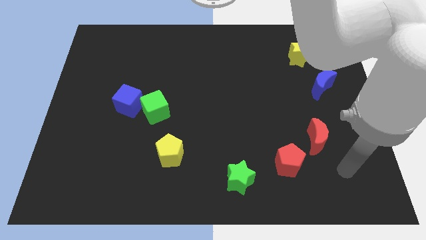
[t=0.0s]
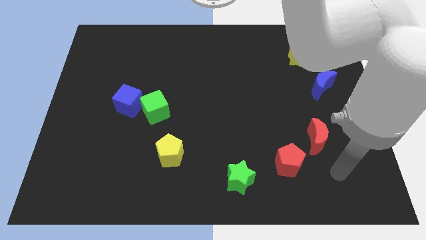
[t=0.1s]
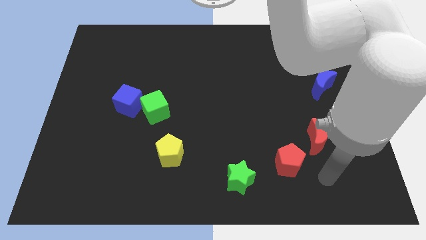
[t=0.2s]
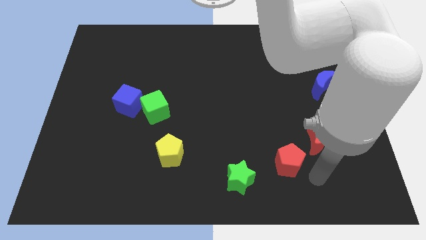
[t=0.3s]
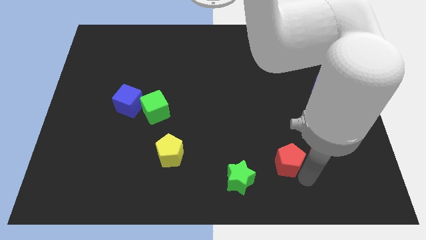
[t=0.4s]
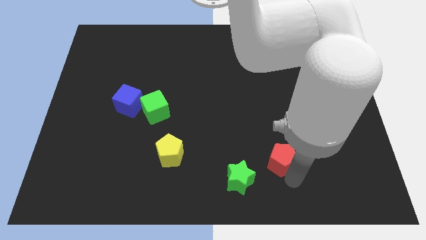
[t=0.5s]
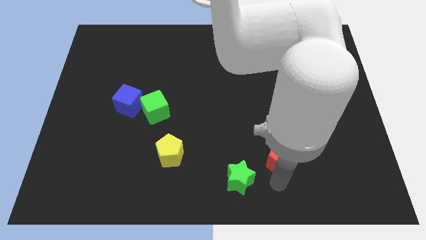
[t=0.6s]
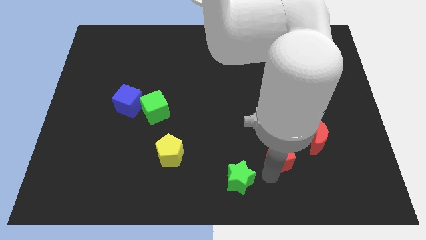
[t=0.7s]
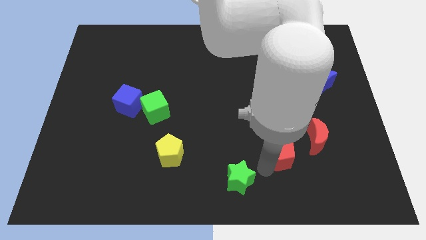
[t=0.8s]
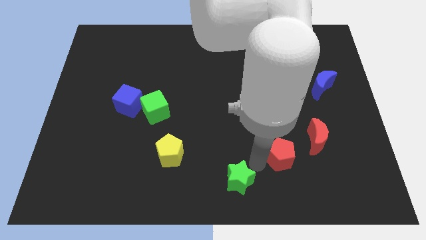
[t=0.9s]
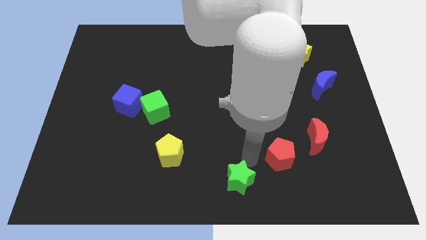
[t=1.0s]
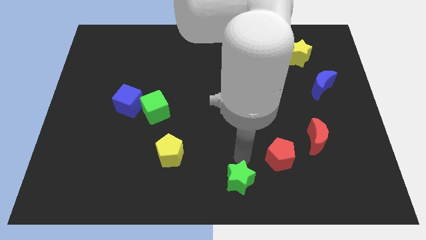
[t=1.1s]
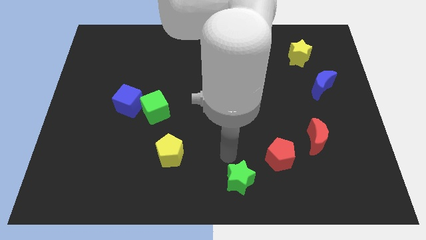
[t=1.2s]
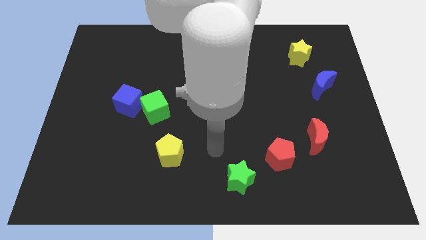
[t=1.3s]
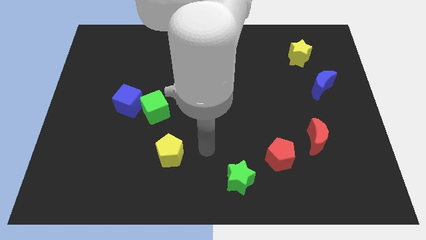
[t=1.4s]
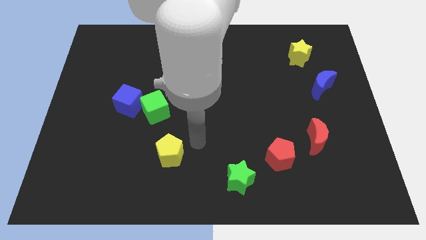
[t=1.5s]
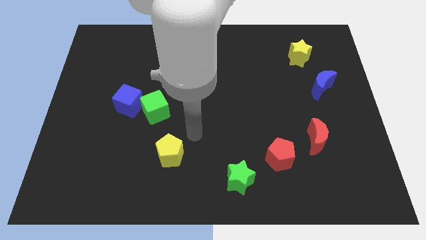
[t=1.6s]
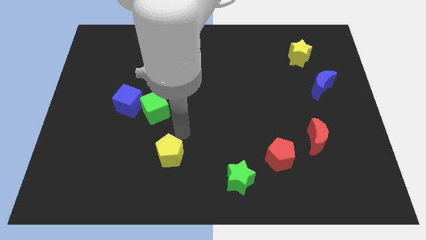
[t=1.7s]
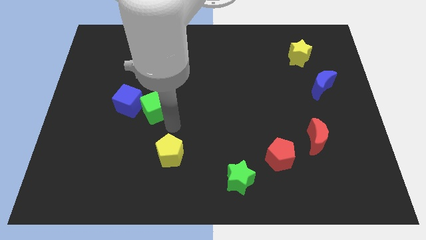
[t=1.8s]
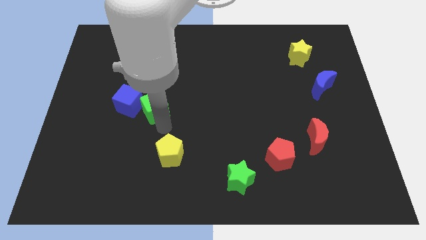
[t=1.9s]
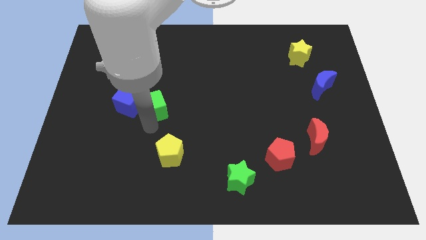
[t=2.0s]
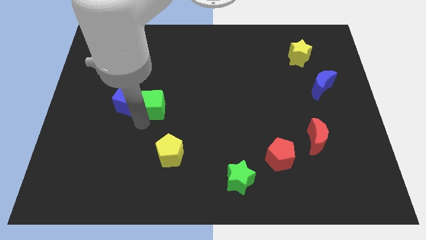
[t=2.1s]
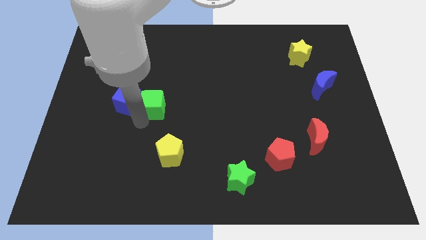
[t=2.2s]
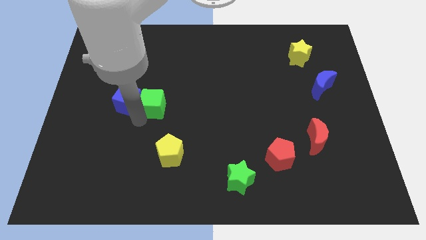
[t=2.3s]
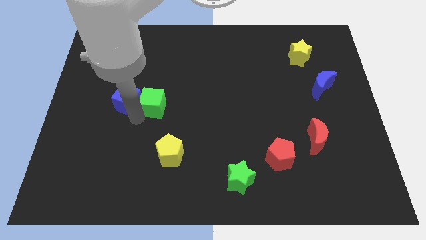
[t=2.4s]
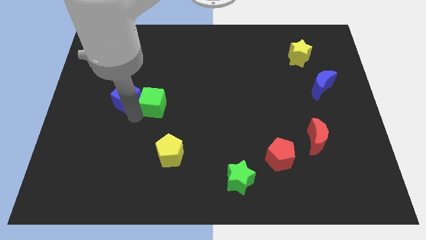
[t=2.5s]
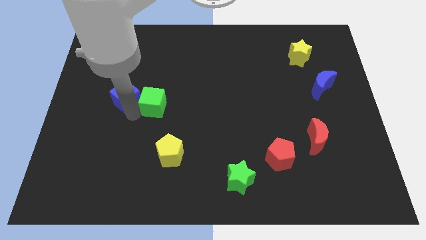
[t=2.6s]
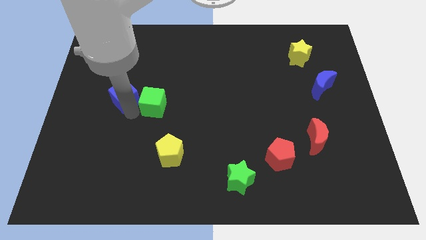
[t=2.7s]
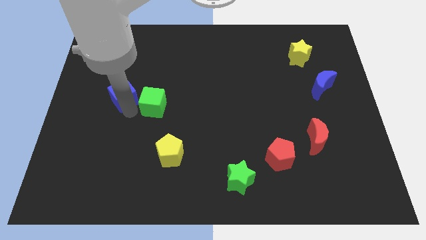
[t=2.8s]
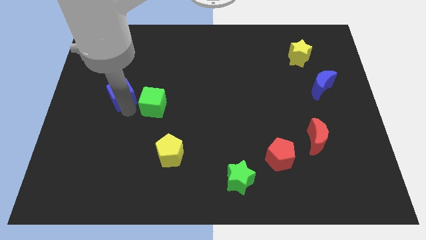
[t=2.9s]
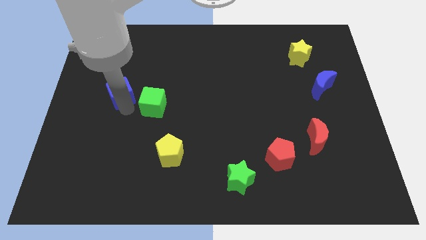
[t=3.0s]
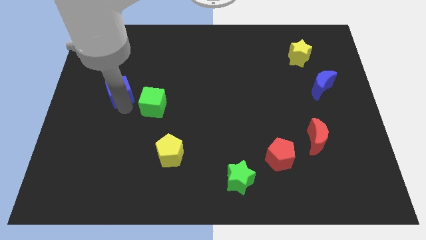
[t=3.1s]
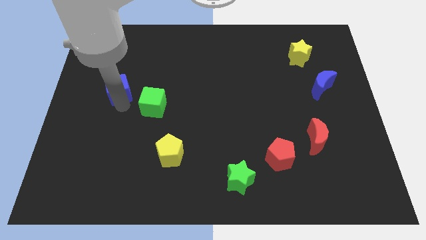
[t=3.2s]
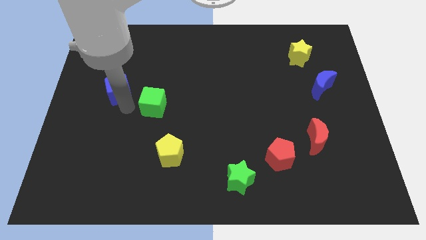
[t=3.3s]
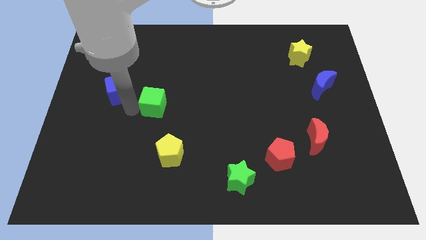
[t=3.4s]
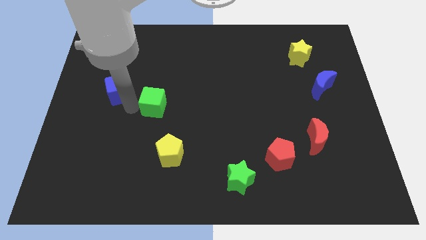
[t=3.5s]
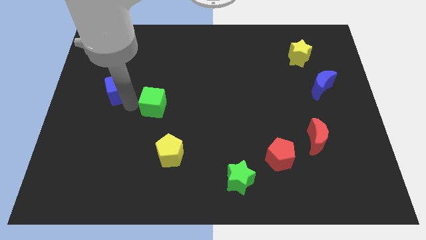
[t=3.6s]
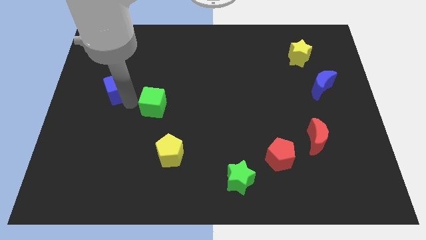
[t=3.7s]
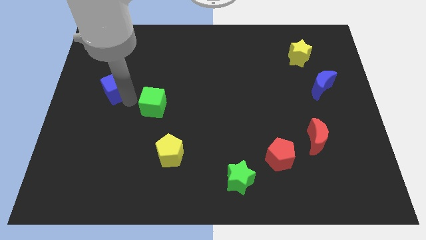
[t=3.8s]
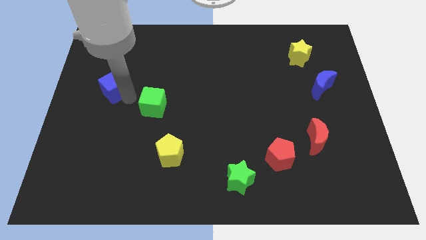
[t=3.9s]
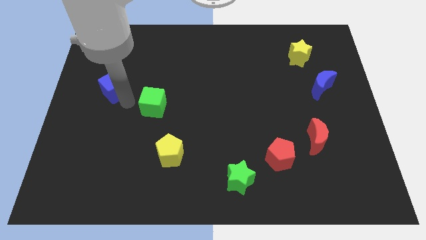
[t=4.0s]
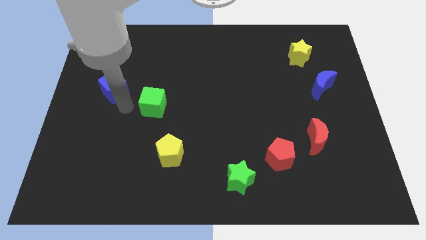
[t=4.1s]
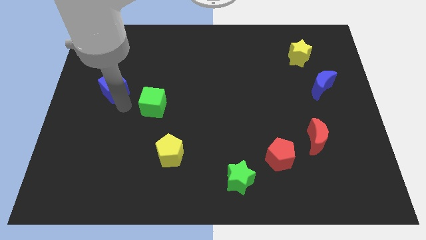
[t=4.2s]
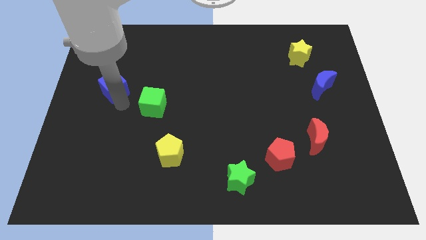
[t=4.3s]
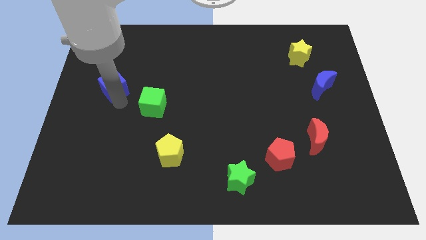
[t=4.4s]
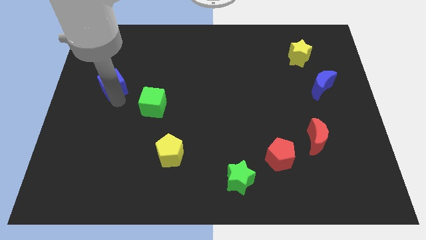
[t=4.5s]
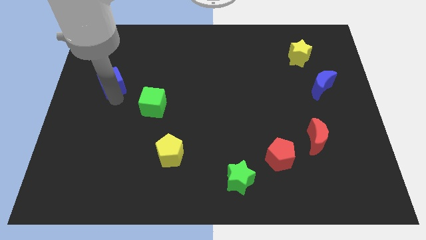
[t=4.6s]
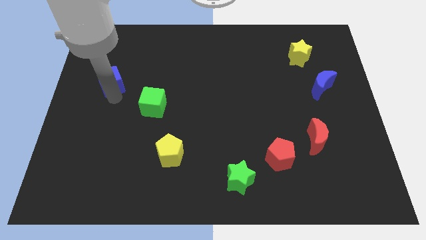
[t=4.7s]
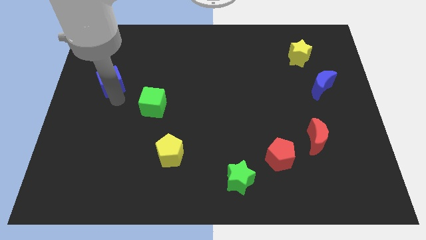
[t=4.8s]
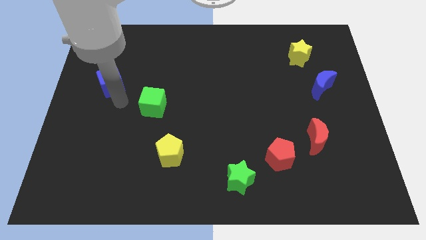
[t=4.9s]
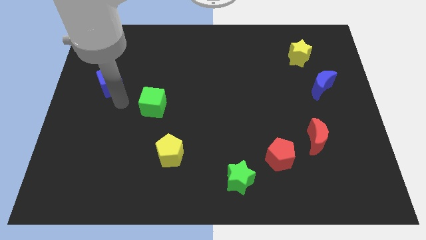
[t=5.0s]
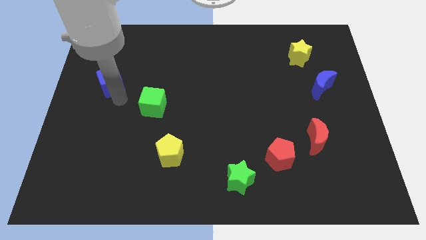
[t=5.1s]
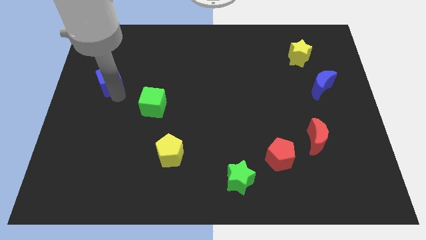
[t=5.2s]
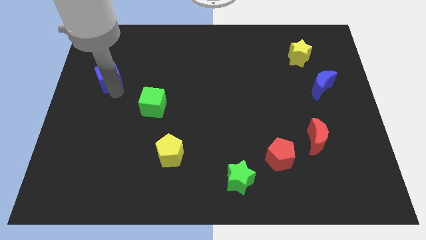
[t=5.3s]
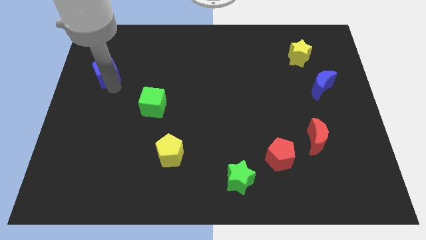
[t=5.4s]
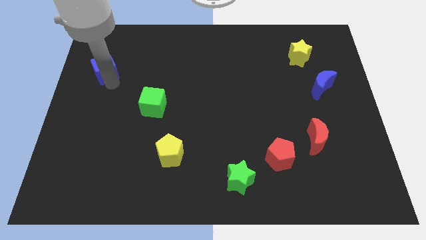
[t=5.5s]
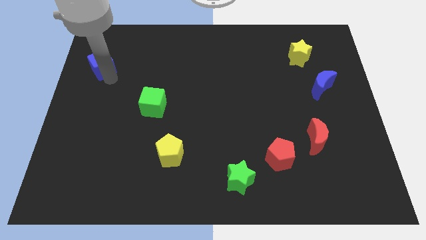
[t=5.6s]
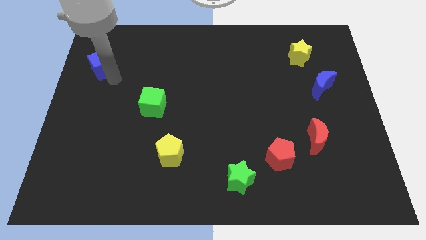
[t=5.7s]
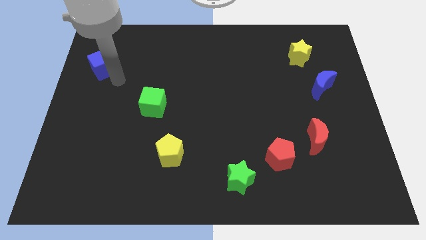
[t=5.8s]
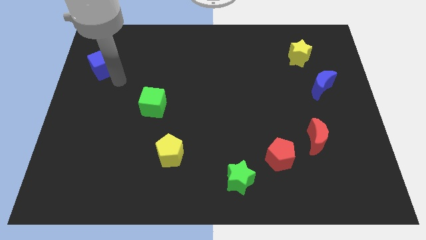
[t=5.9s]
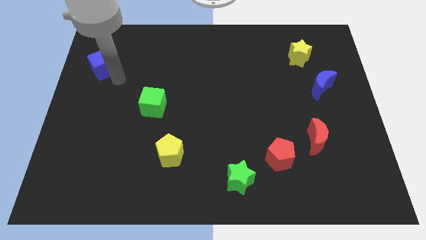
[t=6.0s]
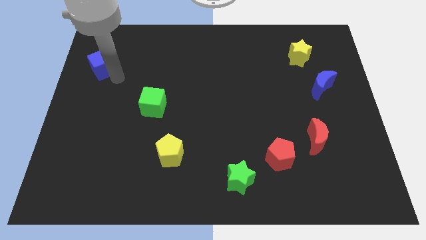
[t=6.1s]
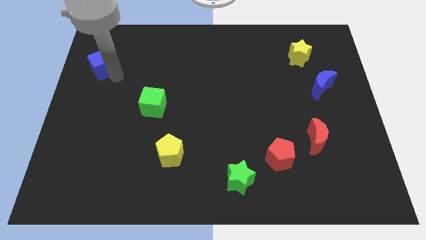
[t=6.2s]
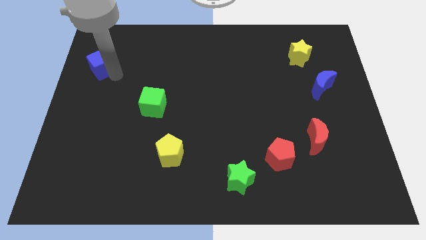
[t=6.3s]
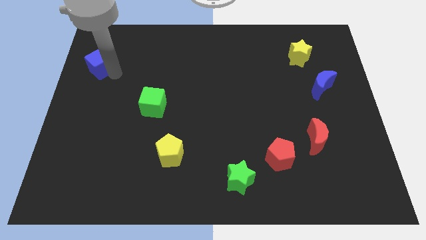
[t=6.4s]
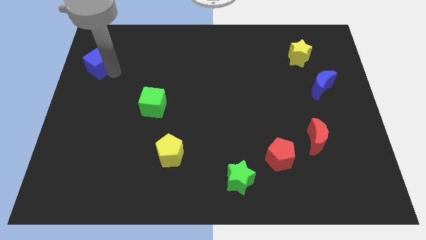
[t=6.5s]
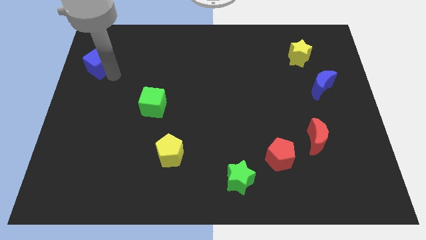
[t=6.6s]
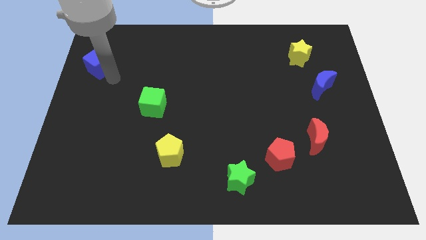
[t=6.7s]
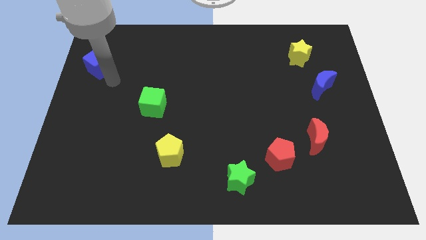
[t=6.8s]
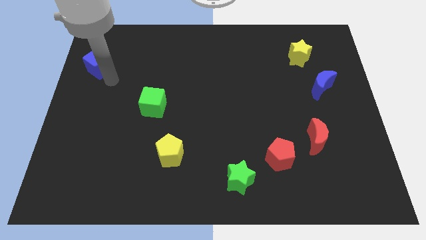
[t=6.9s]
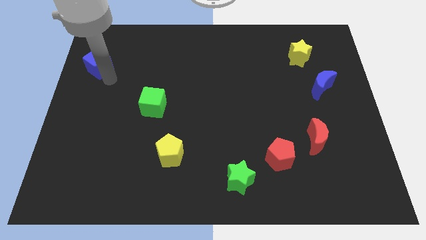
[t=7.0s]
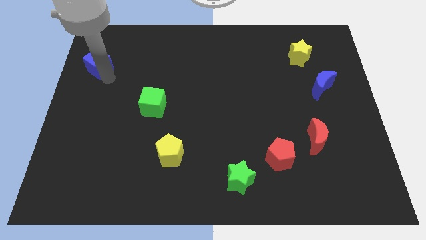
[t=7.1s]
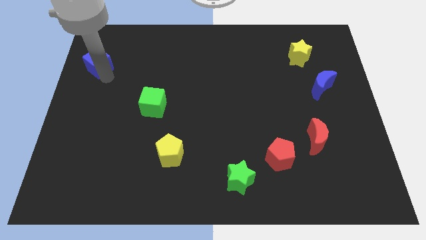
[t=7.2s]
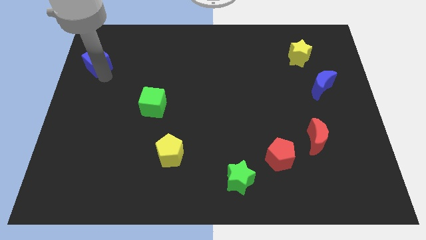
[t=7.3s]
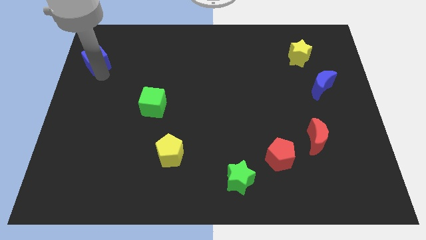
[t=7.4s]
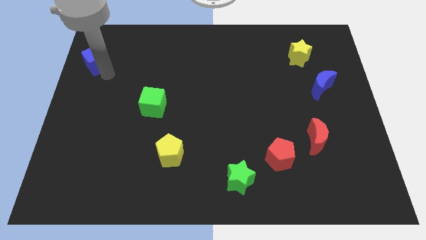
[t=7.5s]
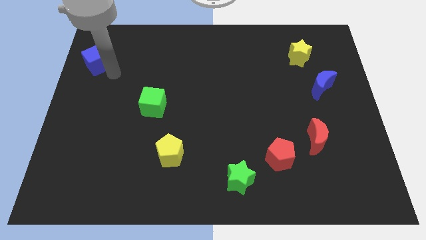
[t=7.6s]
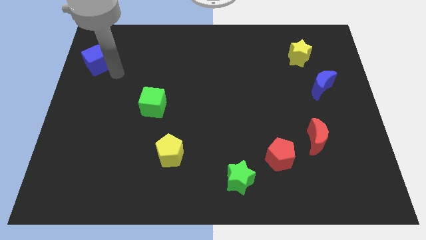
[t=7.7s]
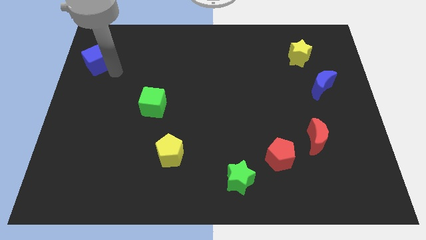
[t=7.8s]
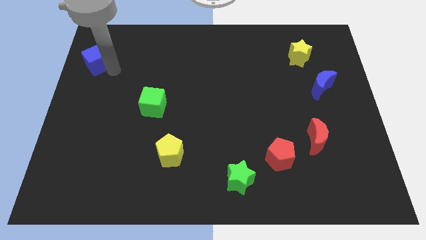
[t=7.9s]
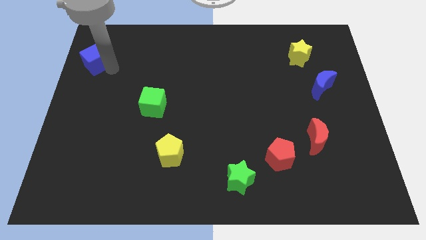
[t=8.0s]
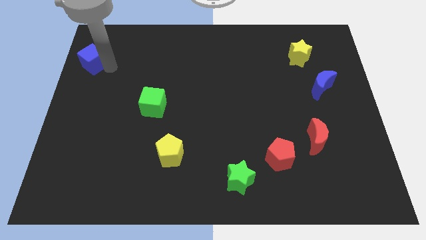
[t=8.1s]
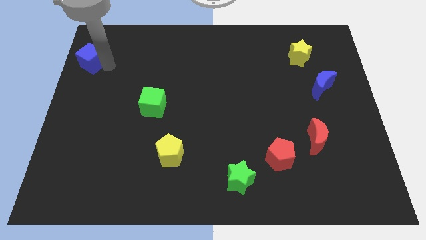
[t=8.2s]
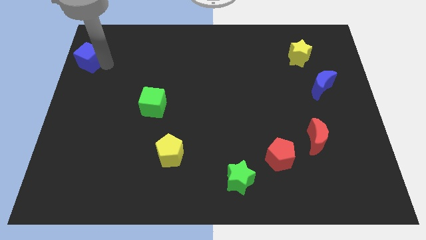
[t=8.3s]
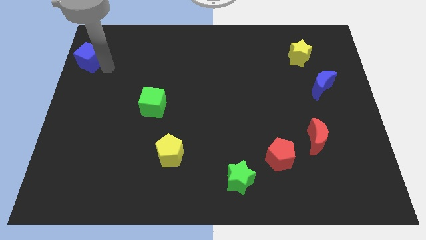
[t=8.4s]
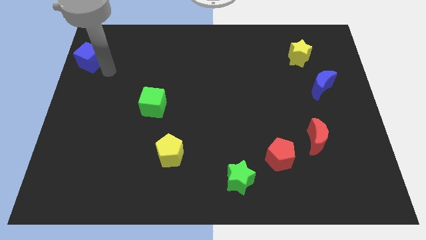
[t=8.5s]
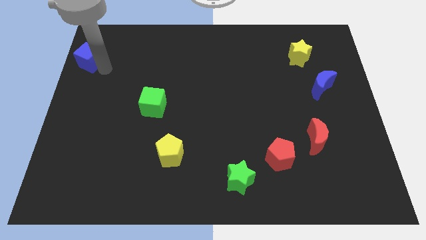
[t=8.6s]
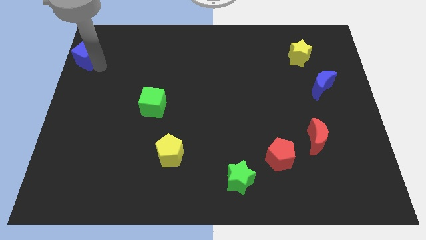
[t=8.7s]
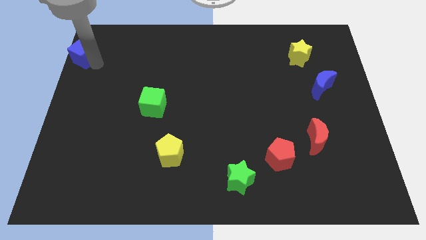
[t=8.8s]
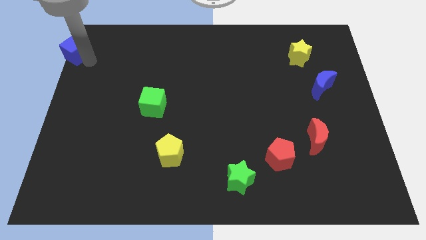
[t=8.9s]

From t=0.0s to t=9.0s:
slide the blue cube to the upper left corner
